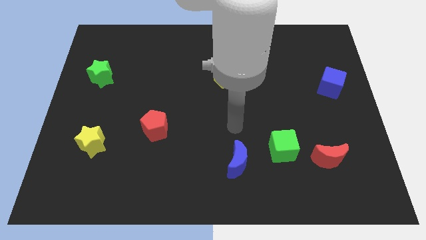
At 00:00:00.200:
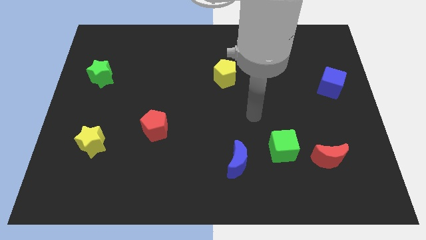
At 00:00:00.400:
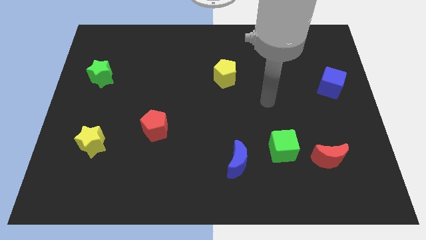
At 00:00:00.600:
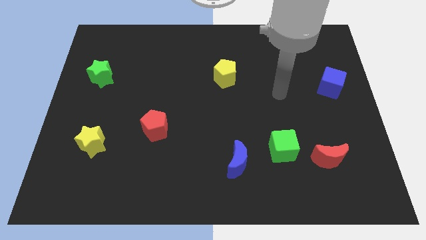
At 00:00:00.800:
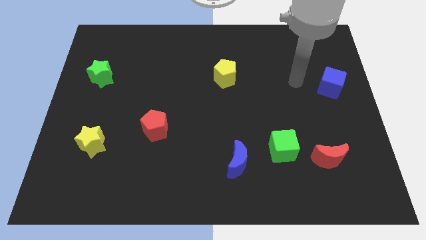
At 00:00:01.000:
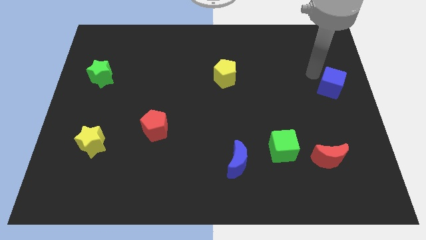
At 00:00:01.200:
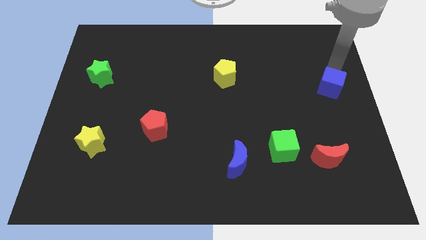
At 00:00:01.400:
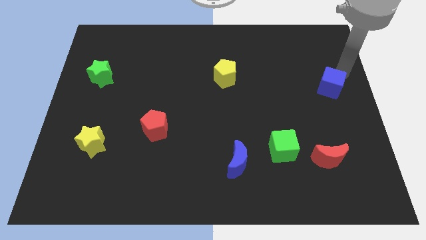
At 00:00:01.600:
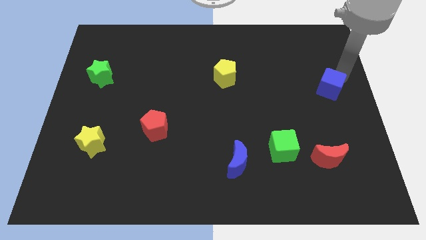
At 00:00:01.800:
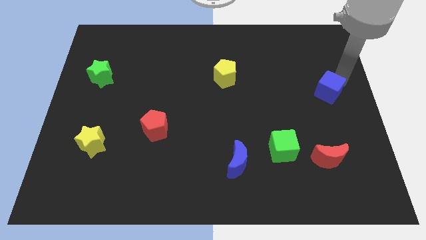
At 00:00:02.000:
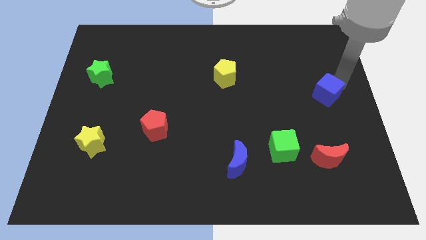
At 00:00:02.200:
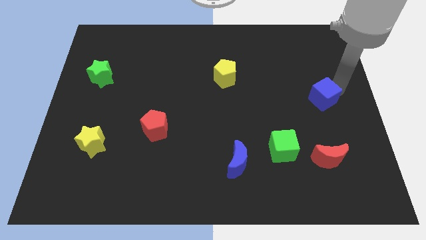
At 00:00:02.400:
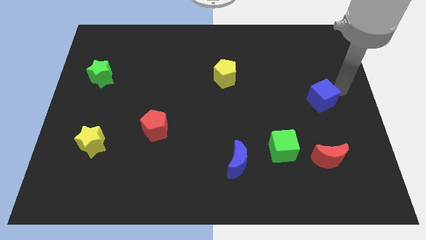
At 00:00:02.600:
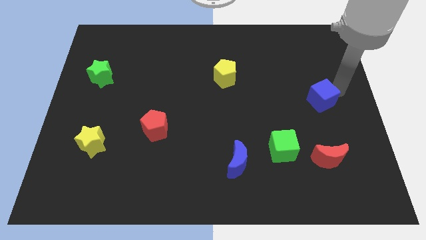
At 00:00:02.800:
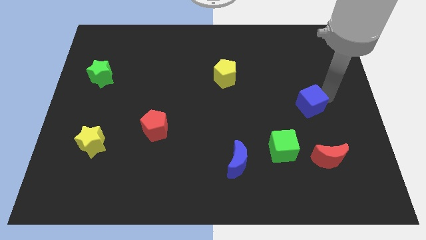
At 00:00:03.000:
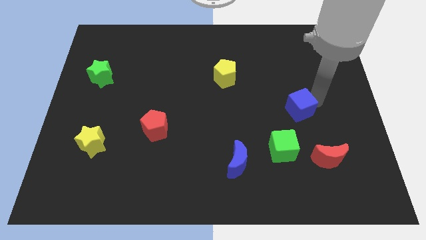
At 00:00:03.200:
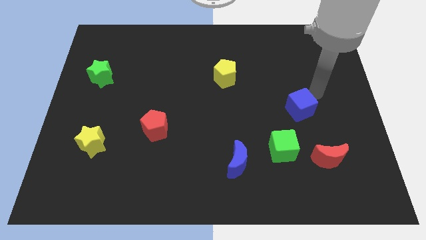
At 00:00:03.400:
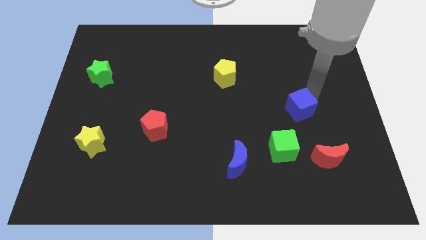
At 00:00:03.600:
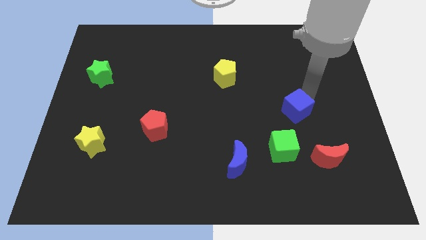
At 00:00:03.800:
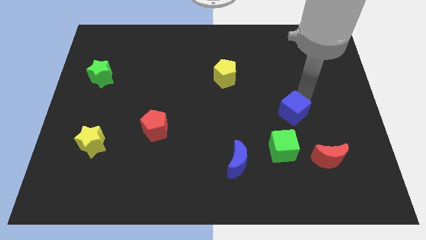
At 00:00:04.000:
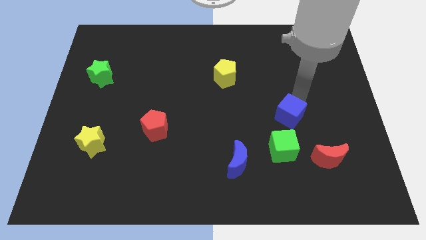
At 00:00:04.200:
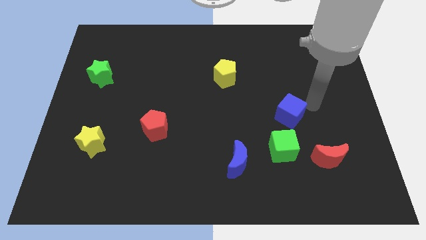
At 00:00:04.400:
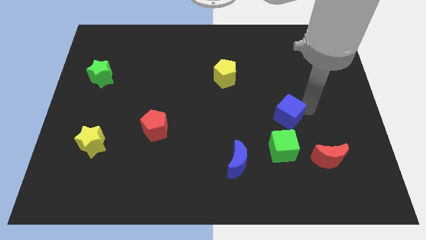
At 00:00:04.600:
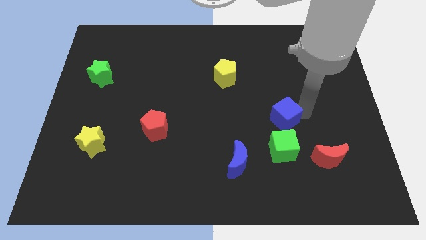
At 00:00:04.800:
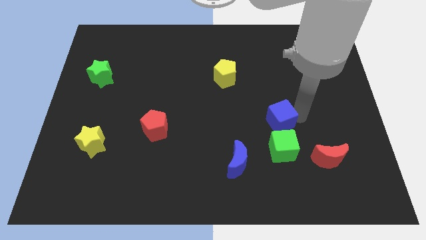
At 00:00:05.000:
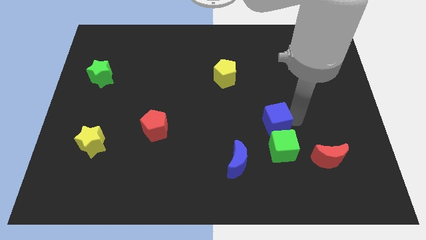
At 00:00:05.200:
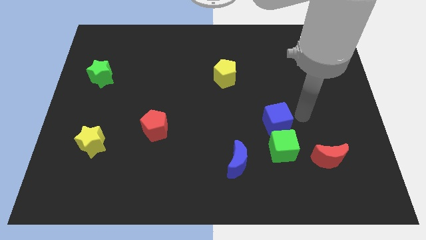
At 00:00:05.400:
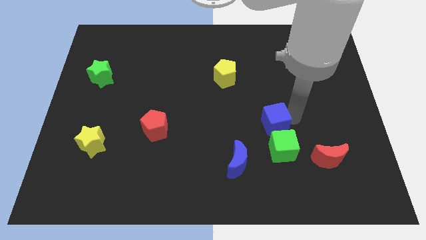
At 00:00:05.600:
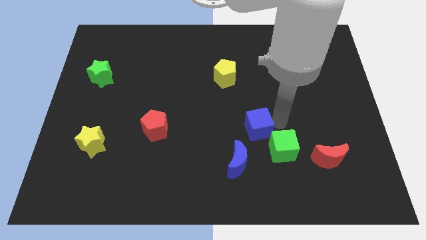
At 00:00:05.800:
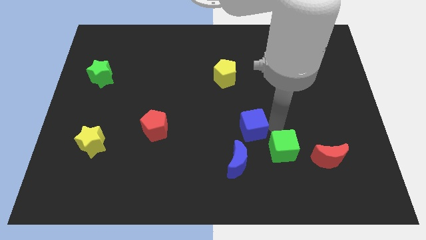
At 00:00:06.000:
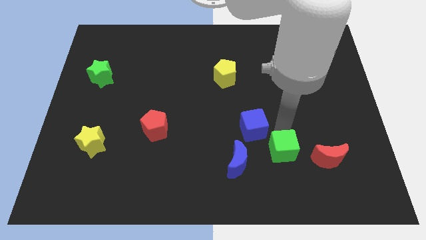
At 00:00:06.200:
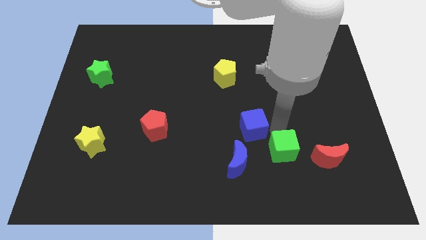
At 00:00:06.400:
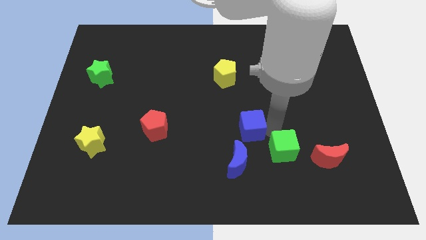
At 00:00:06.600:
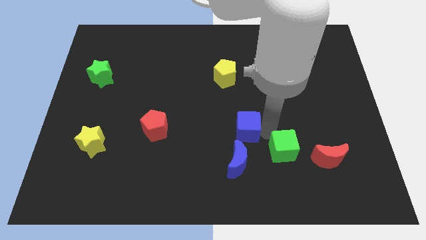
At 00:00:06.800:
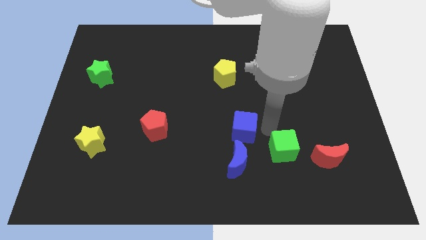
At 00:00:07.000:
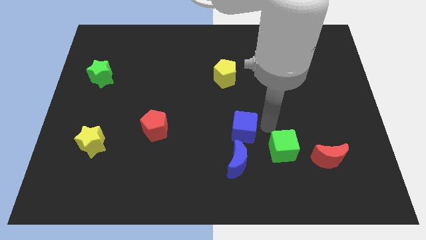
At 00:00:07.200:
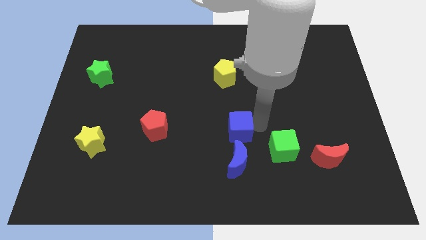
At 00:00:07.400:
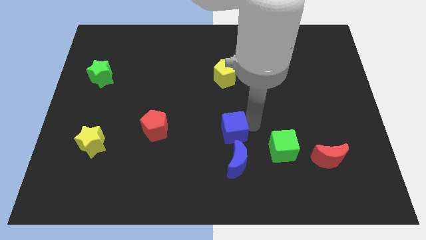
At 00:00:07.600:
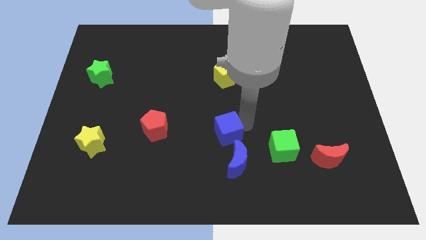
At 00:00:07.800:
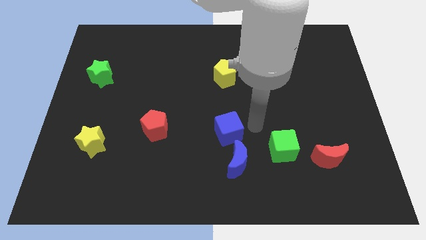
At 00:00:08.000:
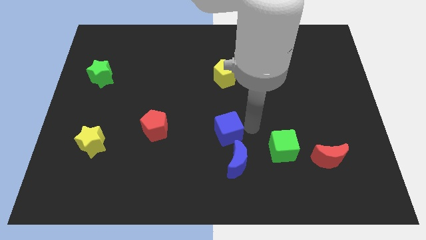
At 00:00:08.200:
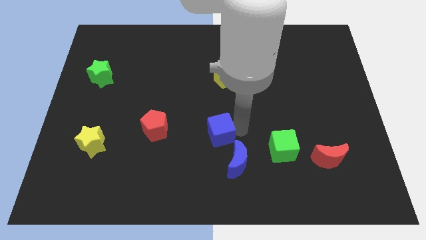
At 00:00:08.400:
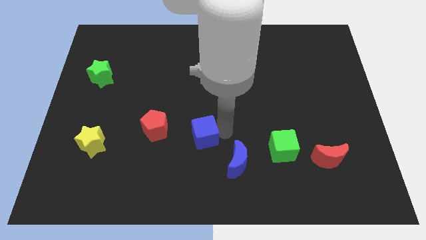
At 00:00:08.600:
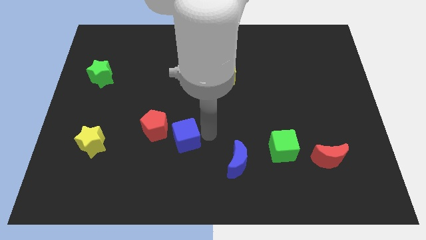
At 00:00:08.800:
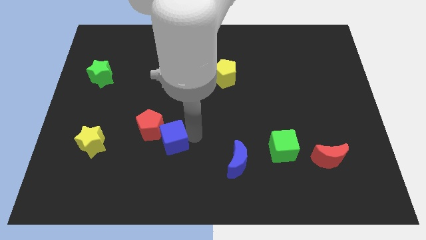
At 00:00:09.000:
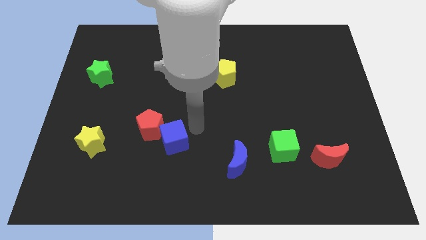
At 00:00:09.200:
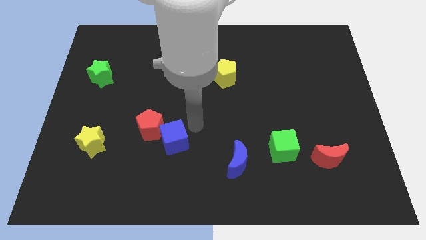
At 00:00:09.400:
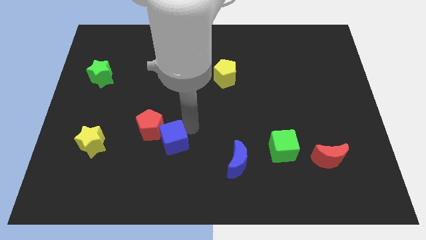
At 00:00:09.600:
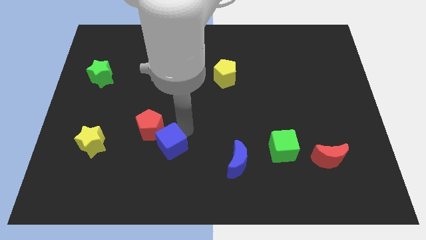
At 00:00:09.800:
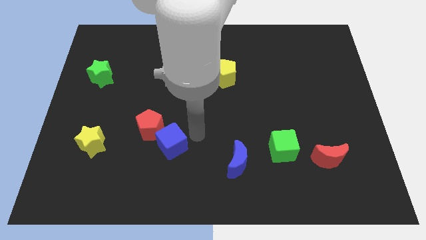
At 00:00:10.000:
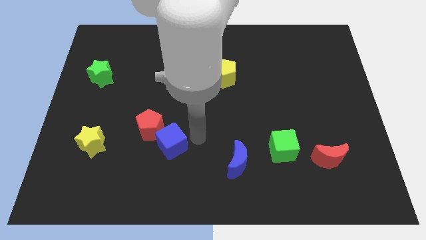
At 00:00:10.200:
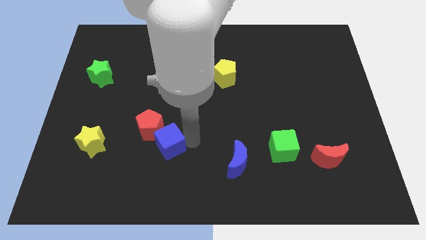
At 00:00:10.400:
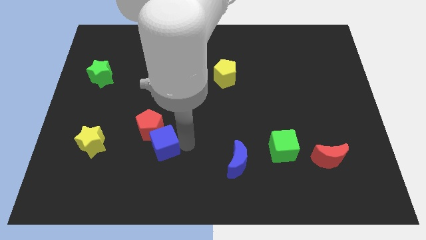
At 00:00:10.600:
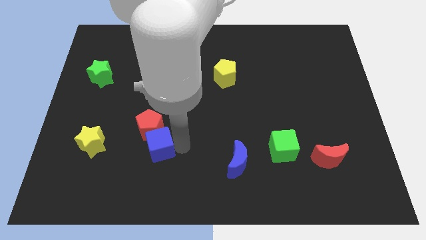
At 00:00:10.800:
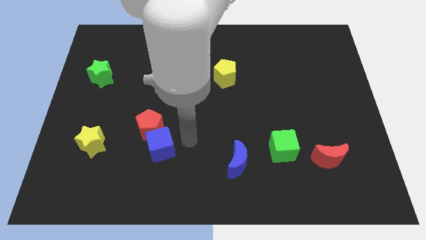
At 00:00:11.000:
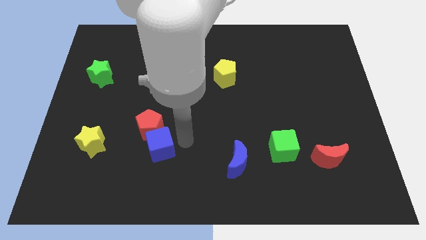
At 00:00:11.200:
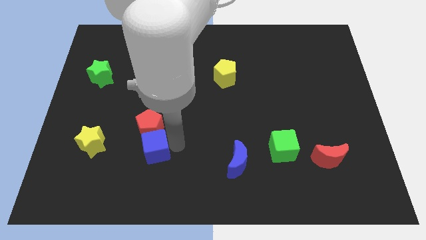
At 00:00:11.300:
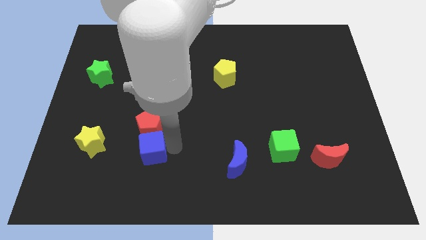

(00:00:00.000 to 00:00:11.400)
move the blue cube to the bottom left of the red pentagon

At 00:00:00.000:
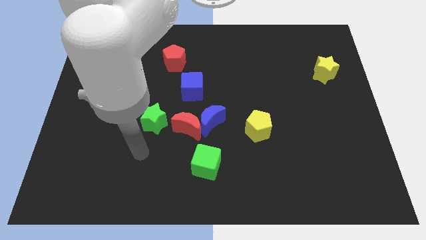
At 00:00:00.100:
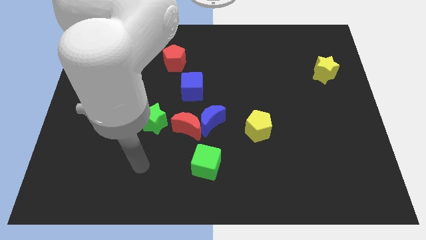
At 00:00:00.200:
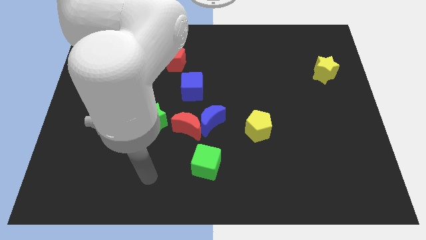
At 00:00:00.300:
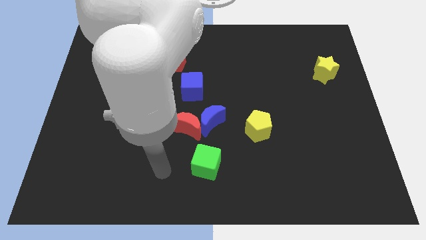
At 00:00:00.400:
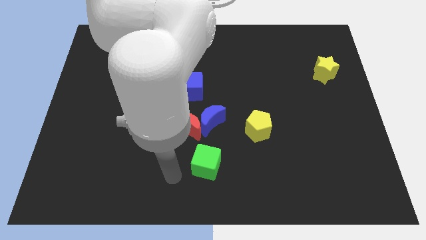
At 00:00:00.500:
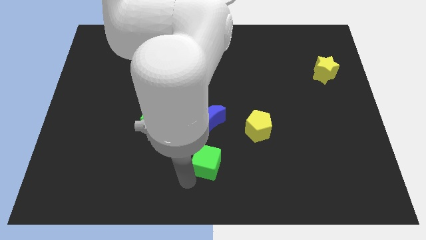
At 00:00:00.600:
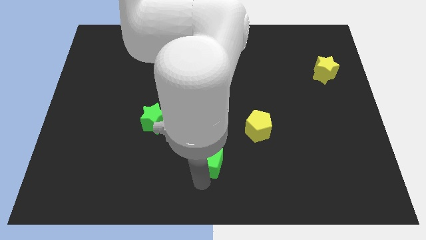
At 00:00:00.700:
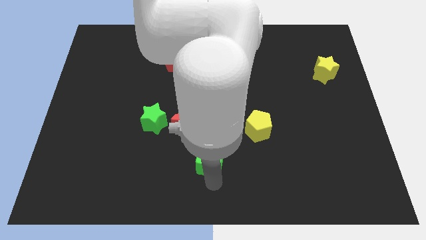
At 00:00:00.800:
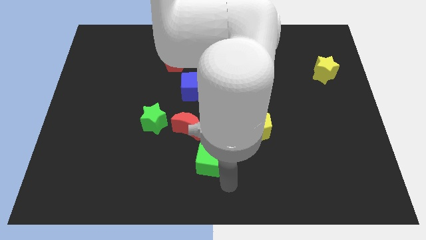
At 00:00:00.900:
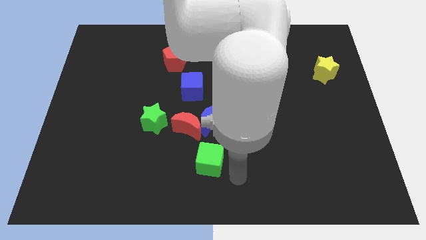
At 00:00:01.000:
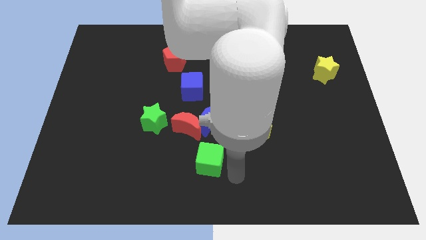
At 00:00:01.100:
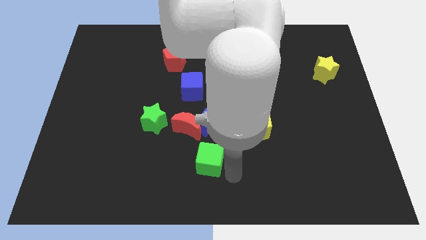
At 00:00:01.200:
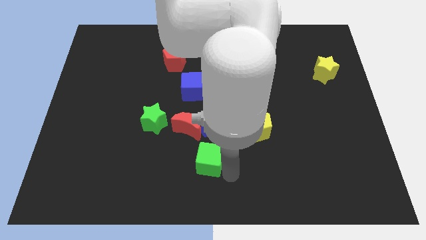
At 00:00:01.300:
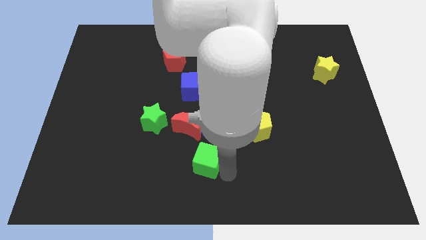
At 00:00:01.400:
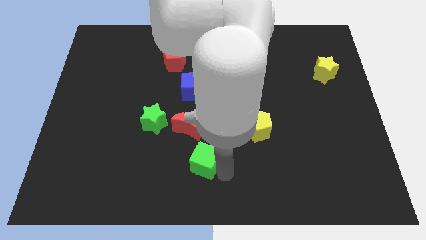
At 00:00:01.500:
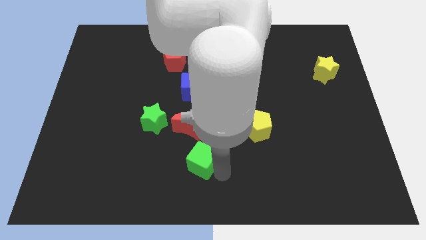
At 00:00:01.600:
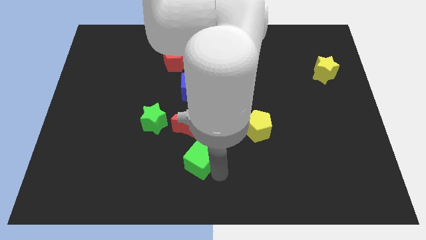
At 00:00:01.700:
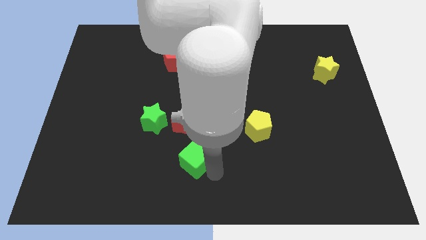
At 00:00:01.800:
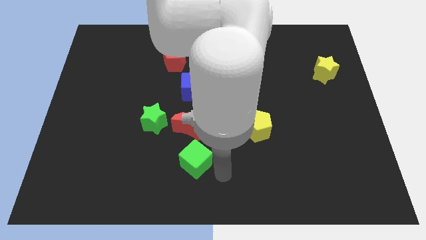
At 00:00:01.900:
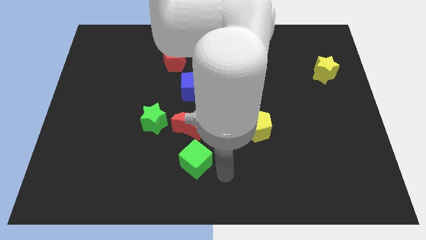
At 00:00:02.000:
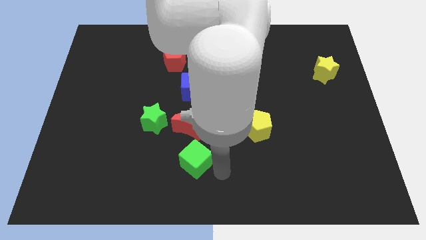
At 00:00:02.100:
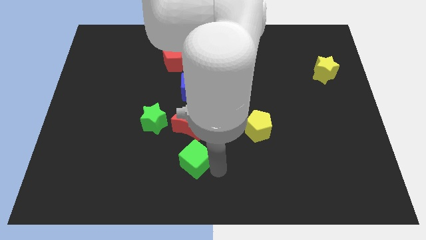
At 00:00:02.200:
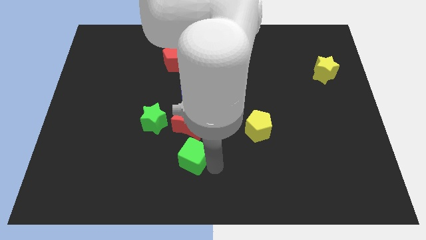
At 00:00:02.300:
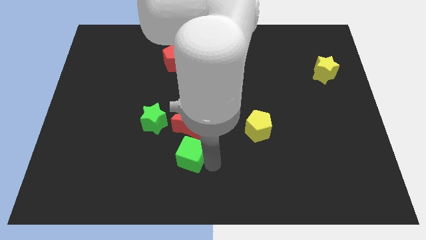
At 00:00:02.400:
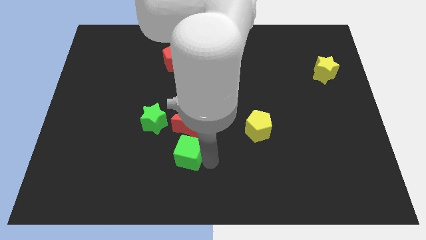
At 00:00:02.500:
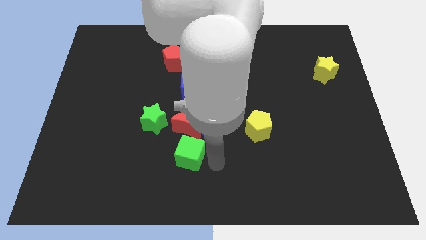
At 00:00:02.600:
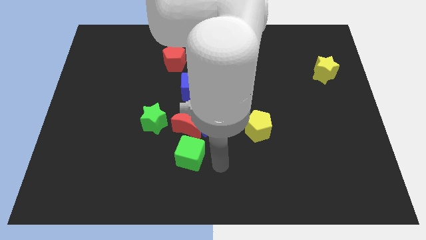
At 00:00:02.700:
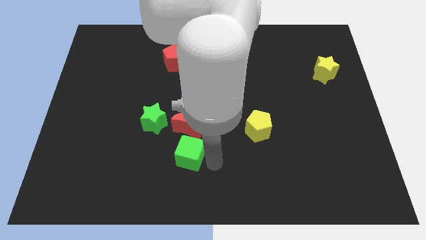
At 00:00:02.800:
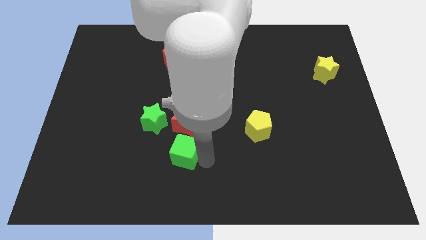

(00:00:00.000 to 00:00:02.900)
slide the green cube diagonally down and to the left of the red moon
